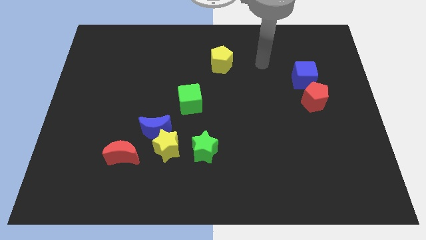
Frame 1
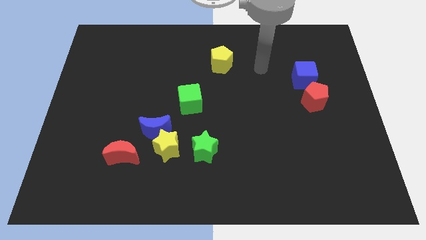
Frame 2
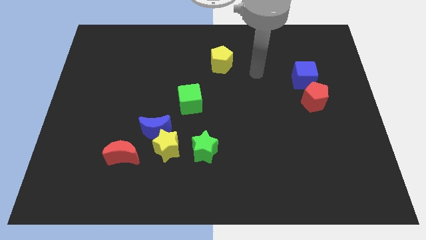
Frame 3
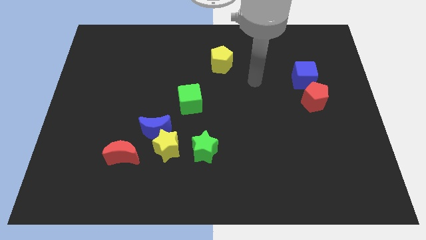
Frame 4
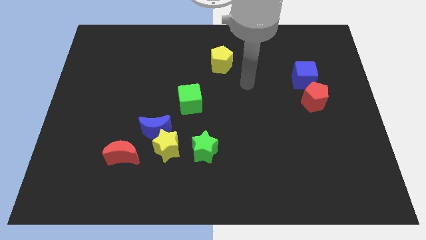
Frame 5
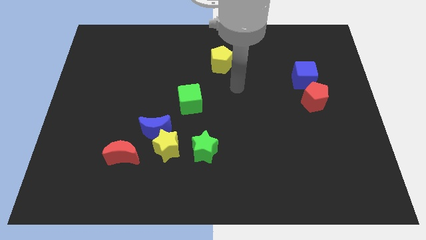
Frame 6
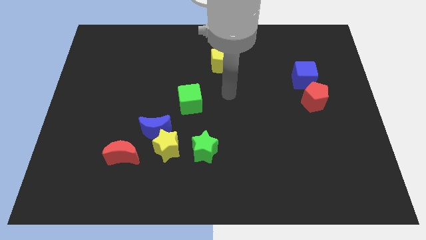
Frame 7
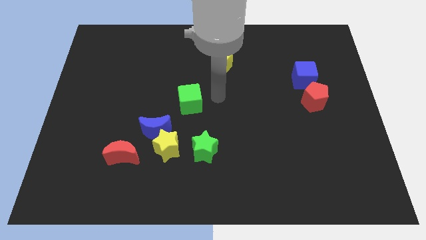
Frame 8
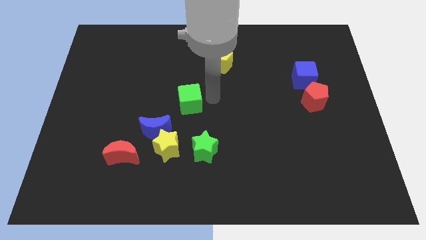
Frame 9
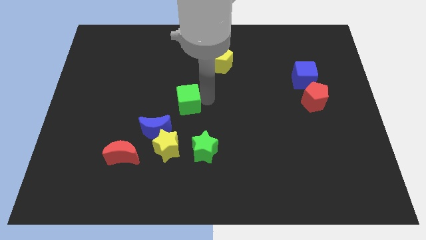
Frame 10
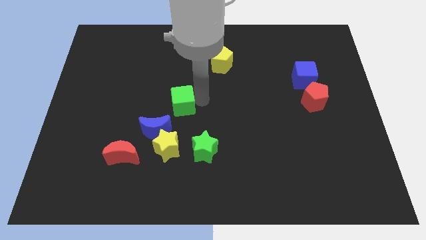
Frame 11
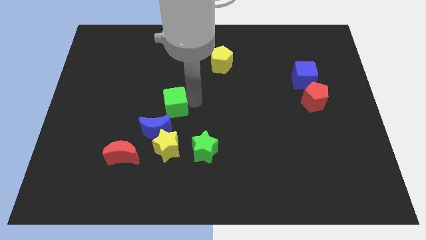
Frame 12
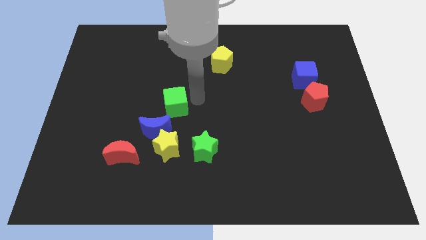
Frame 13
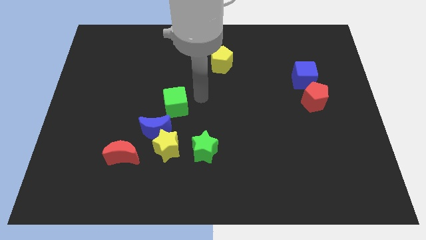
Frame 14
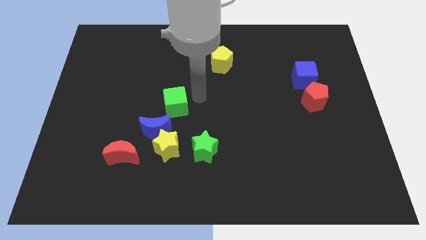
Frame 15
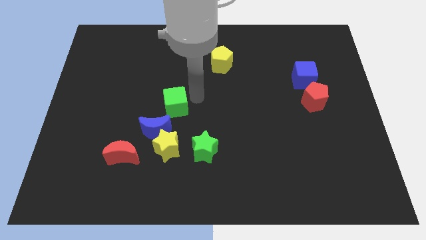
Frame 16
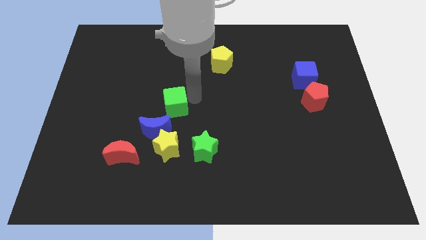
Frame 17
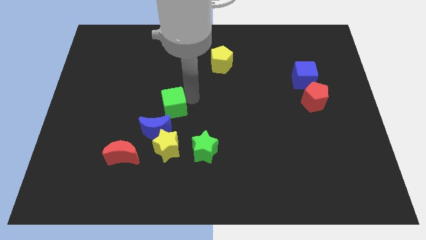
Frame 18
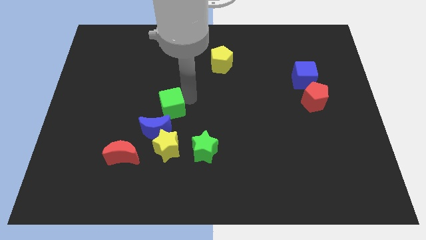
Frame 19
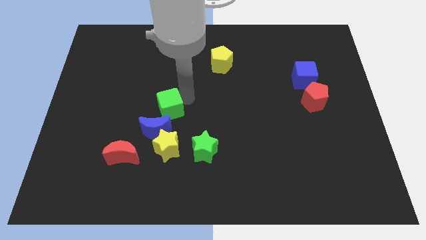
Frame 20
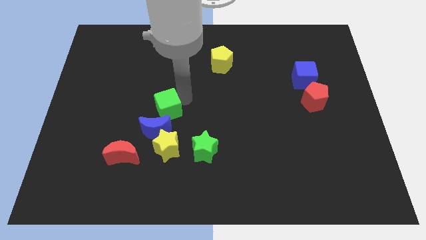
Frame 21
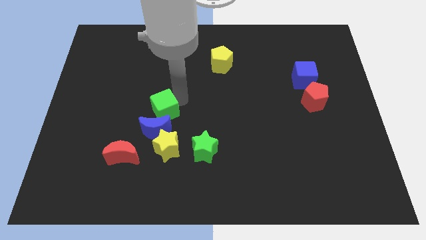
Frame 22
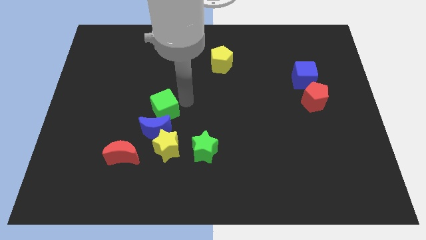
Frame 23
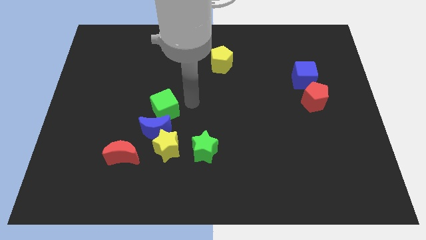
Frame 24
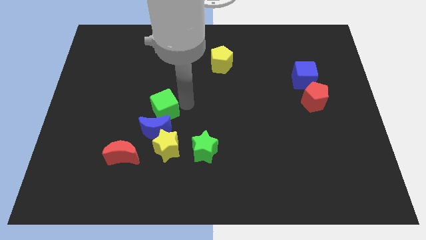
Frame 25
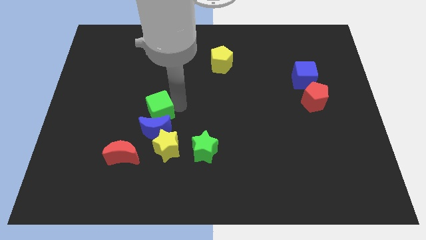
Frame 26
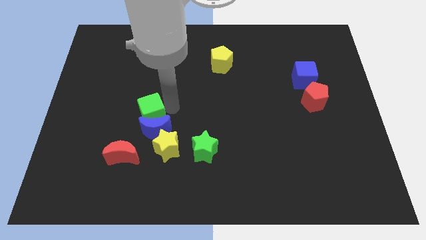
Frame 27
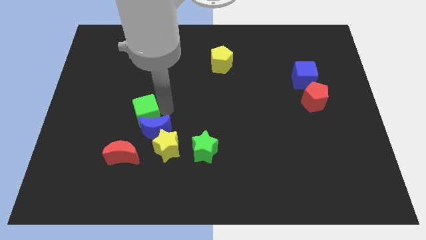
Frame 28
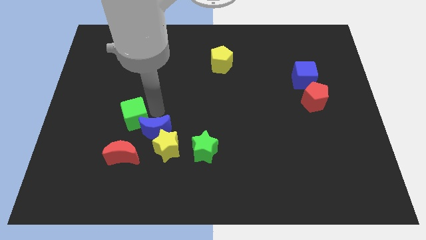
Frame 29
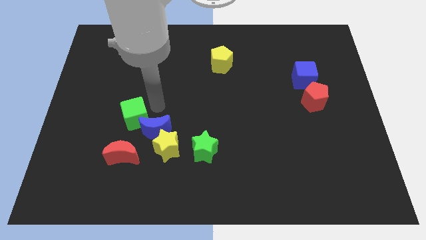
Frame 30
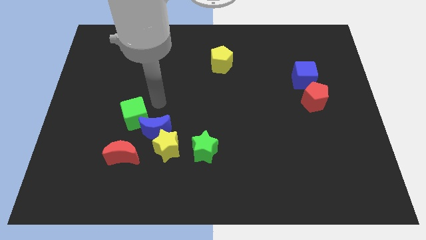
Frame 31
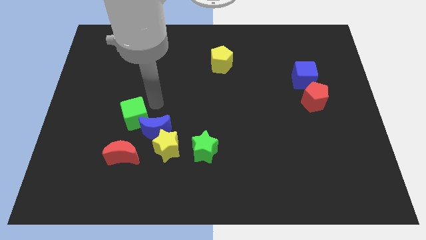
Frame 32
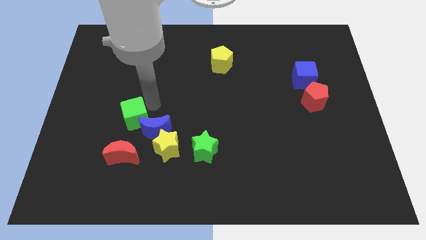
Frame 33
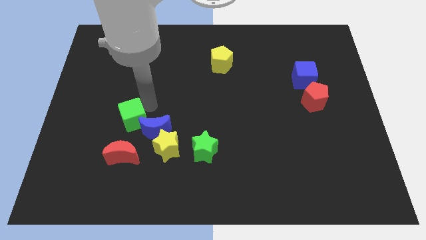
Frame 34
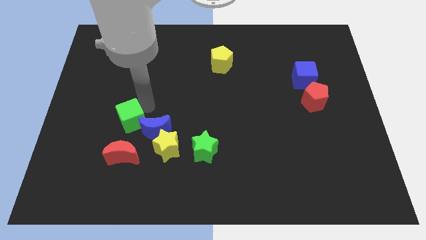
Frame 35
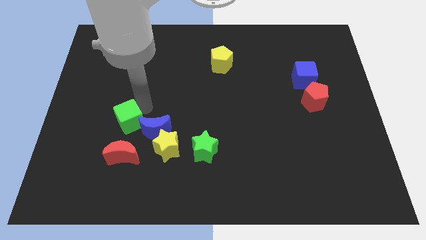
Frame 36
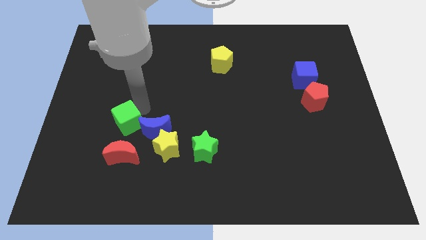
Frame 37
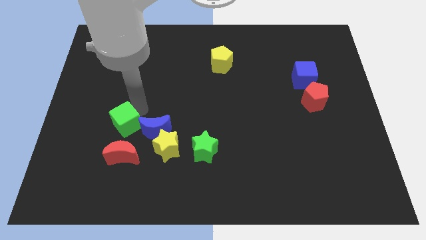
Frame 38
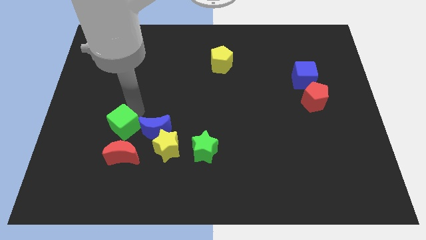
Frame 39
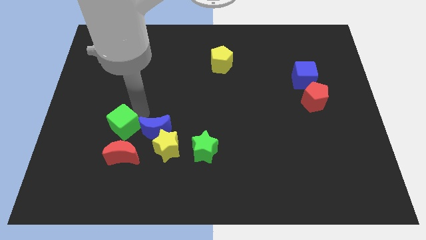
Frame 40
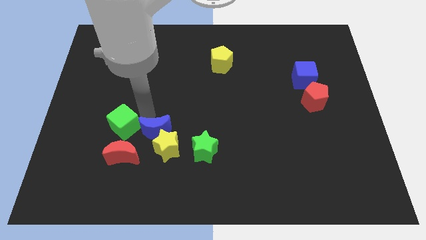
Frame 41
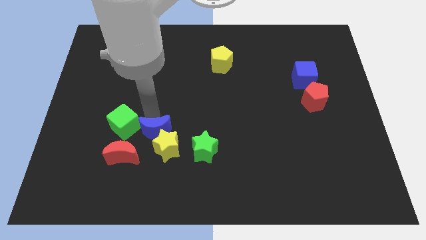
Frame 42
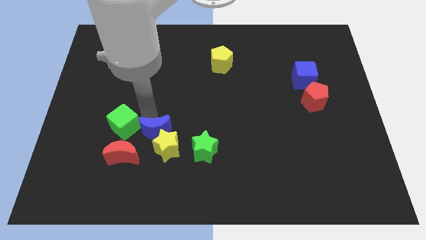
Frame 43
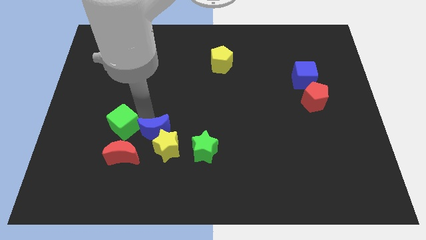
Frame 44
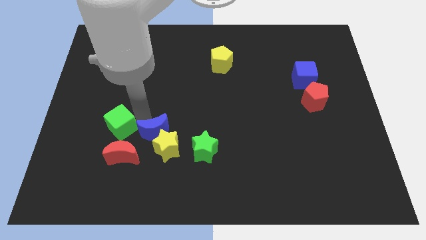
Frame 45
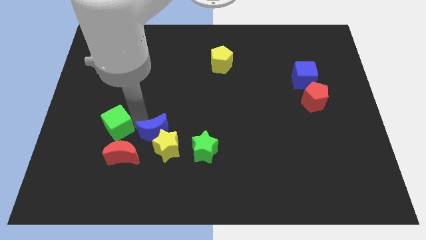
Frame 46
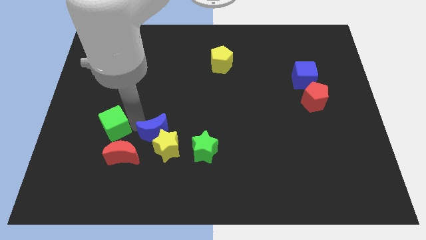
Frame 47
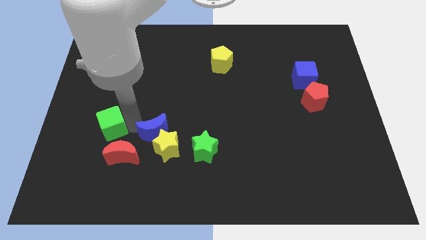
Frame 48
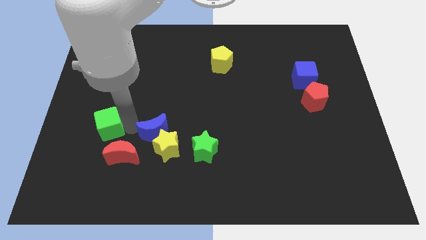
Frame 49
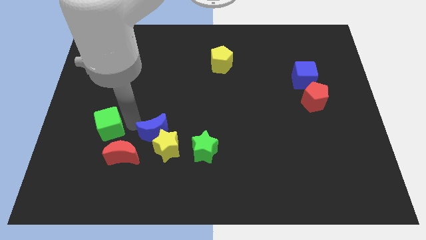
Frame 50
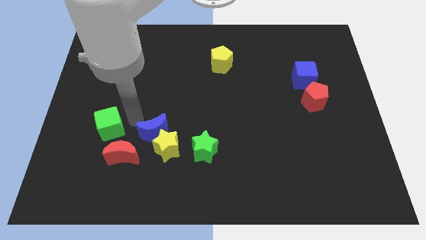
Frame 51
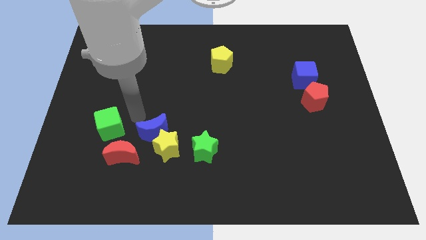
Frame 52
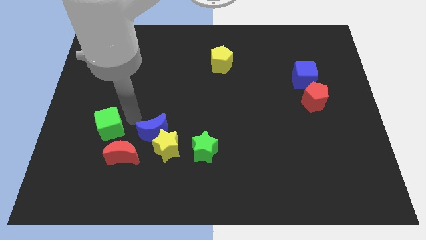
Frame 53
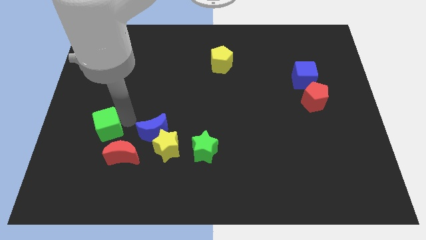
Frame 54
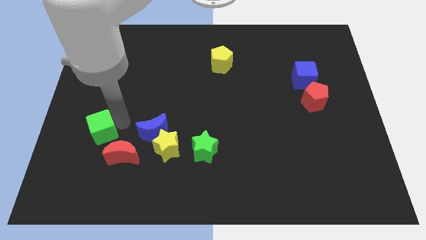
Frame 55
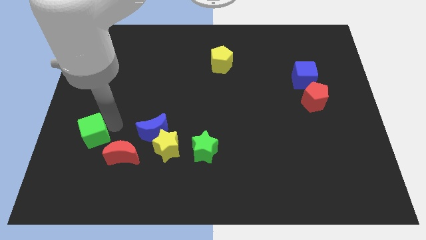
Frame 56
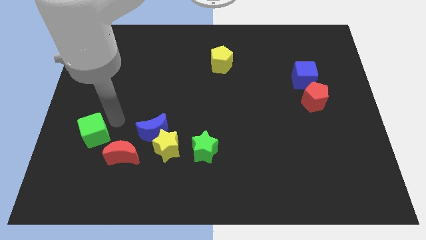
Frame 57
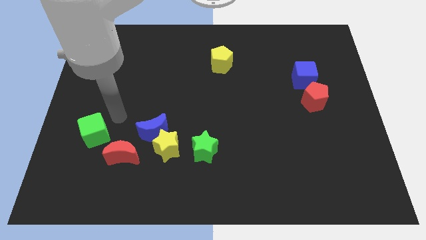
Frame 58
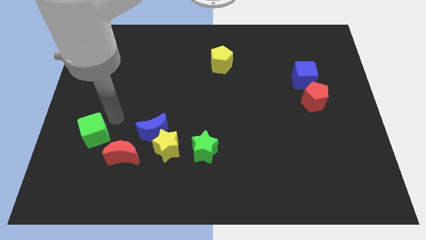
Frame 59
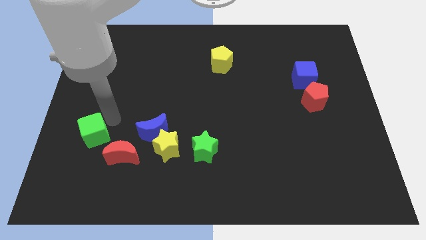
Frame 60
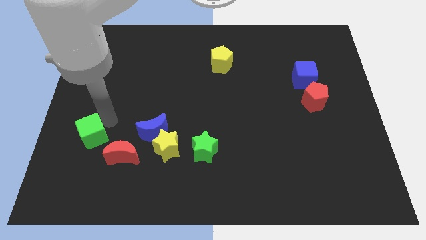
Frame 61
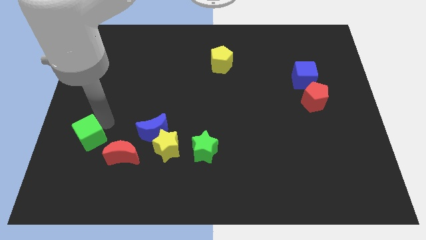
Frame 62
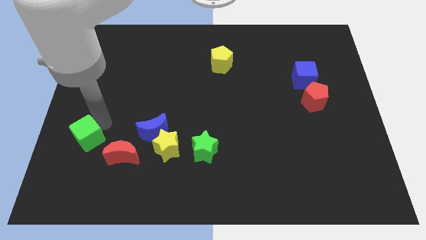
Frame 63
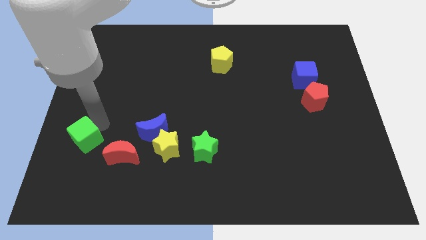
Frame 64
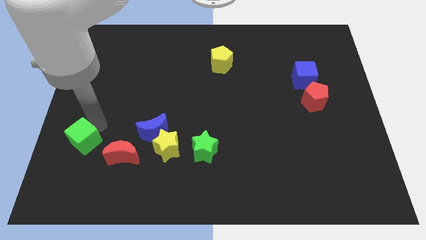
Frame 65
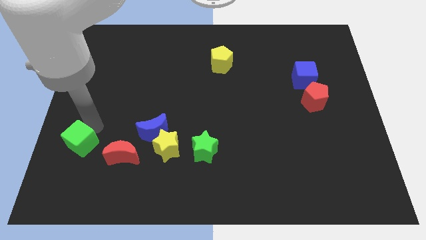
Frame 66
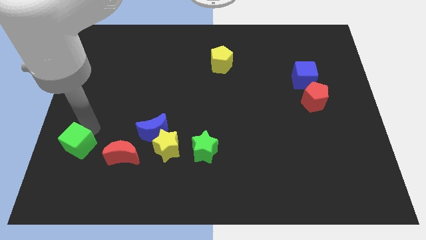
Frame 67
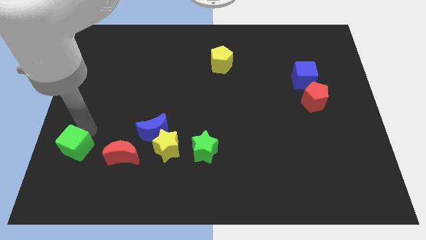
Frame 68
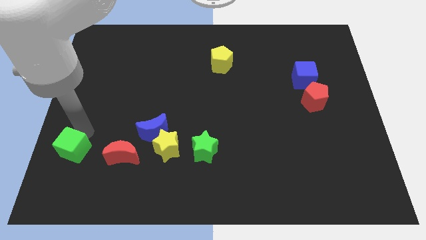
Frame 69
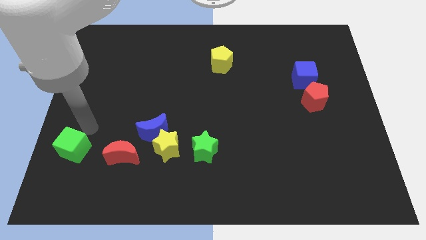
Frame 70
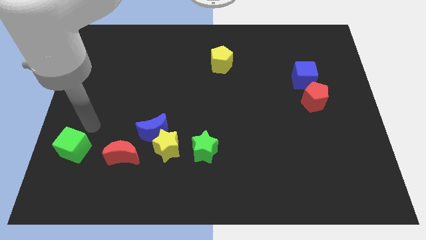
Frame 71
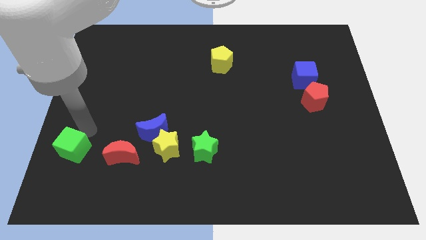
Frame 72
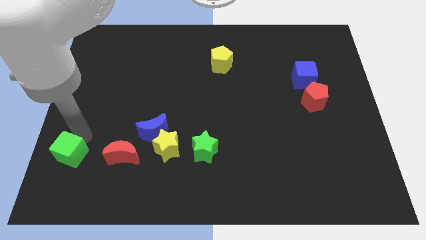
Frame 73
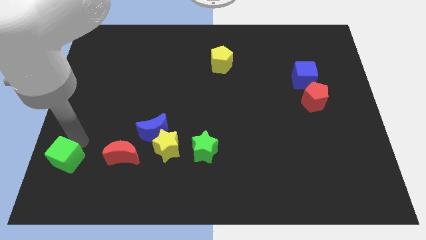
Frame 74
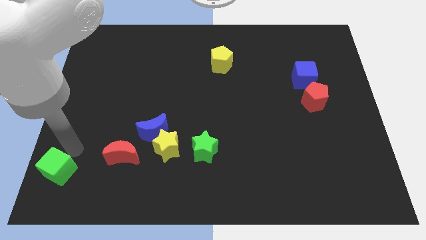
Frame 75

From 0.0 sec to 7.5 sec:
push the green cube to the bottom left of the board
